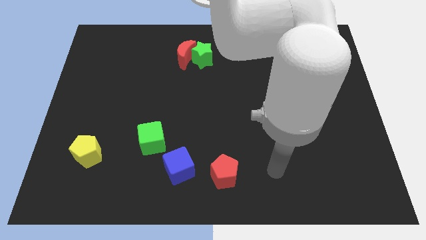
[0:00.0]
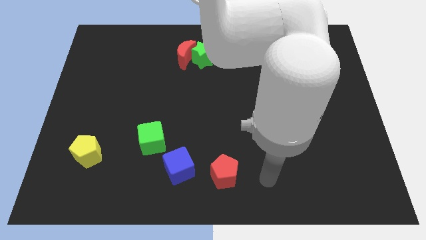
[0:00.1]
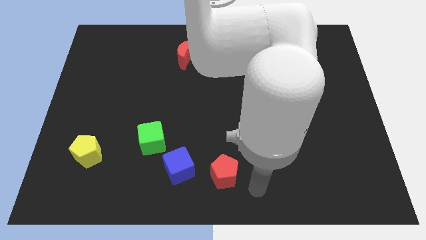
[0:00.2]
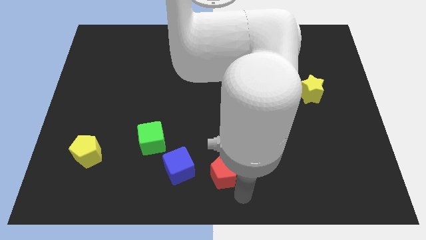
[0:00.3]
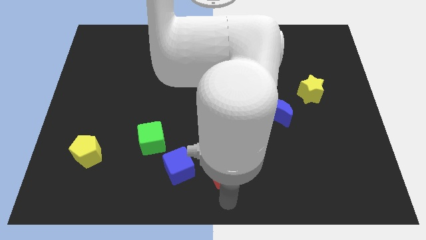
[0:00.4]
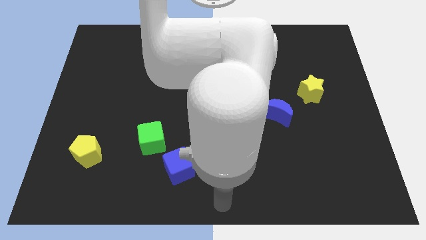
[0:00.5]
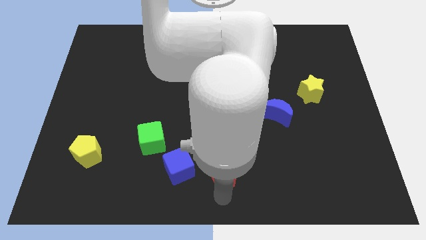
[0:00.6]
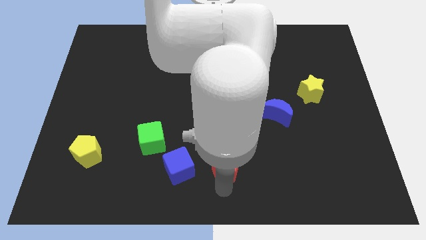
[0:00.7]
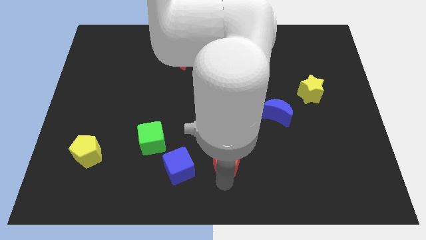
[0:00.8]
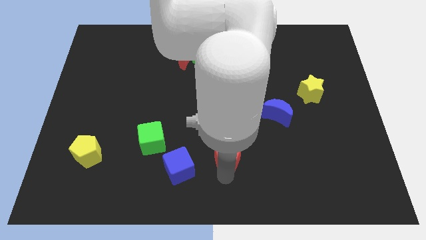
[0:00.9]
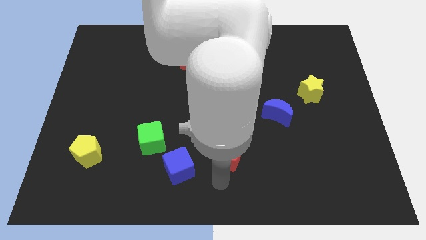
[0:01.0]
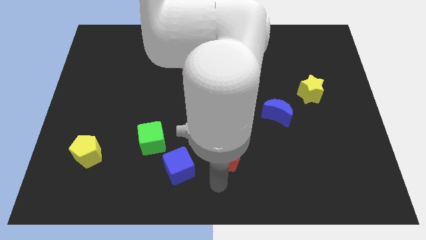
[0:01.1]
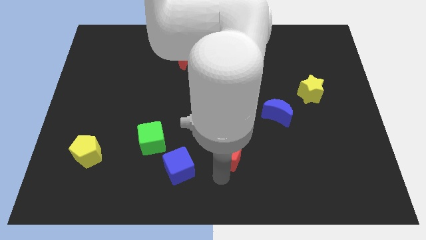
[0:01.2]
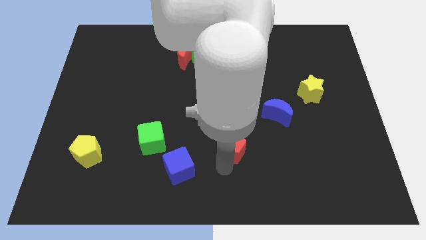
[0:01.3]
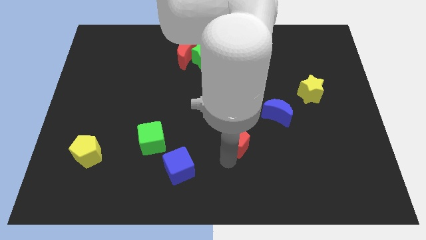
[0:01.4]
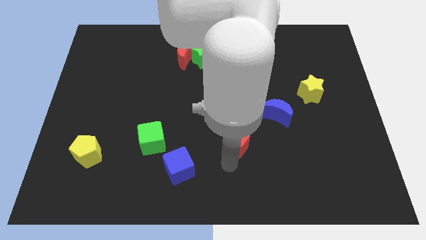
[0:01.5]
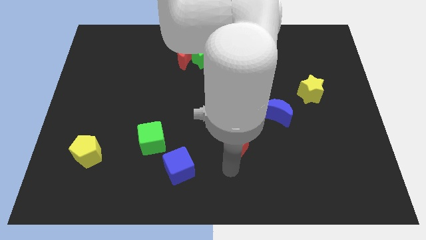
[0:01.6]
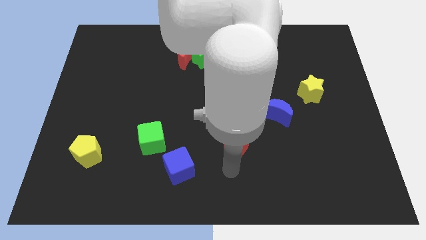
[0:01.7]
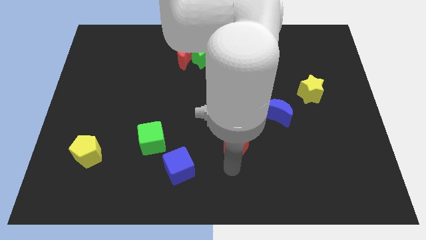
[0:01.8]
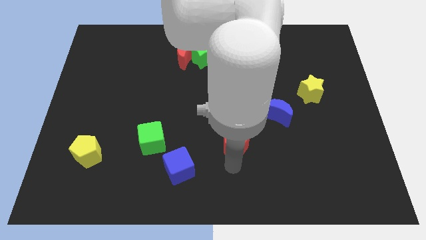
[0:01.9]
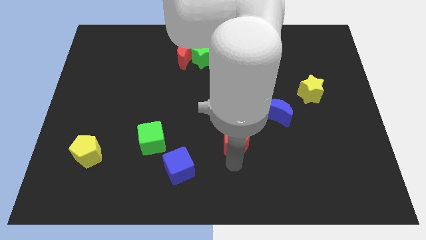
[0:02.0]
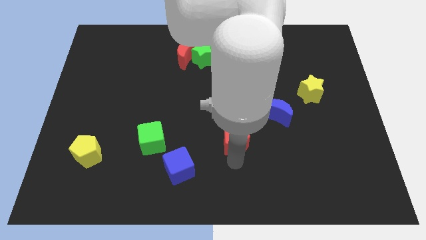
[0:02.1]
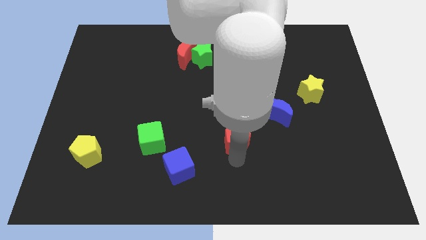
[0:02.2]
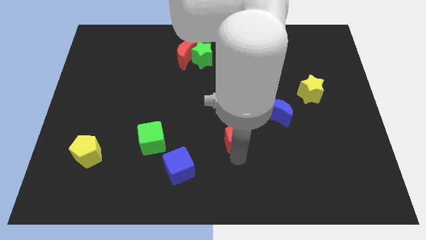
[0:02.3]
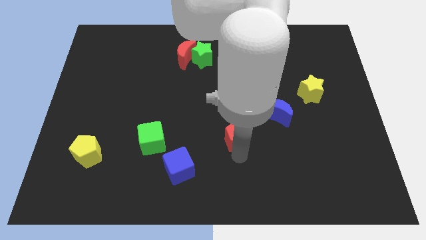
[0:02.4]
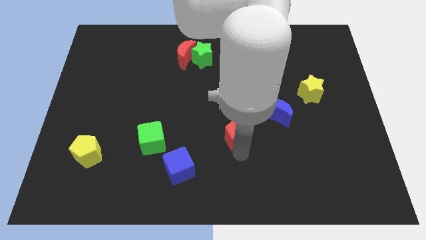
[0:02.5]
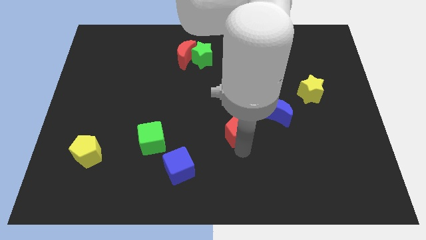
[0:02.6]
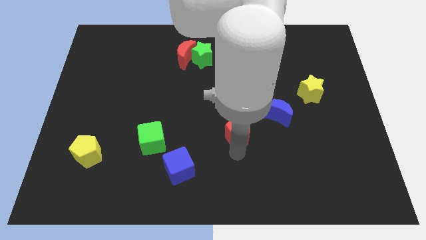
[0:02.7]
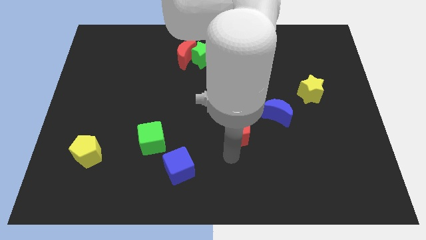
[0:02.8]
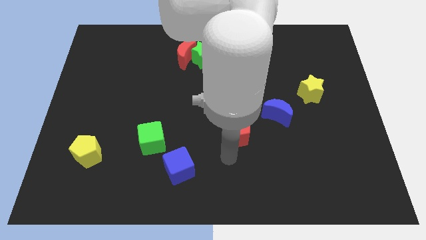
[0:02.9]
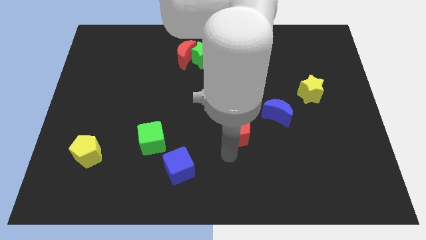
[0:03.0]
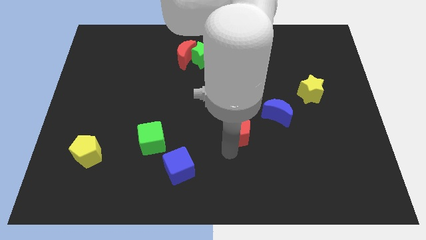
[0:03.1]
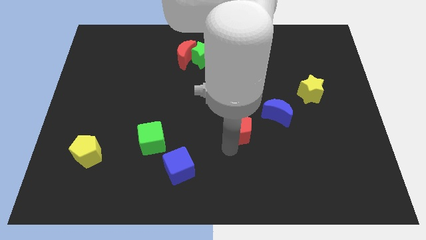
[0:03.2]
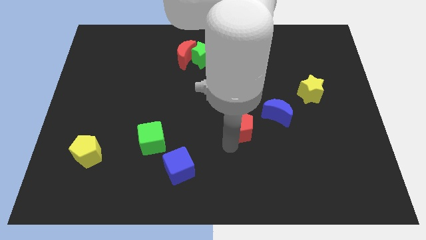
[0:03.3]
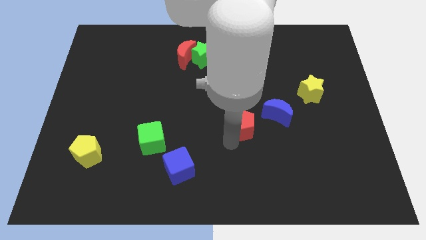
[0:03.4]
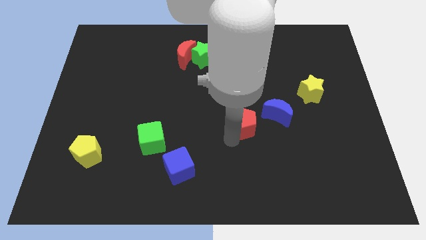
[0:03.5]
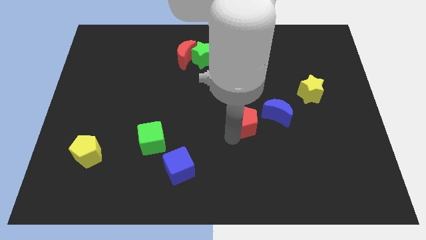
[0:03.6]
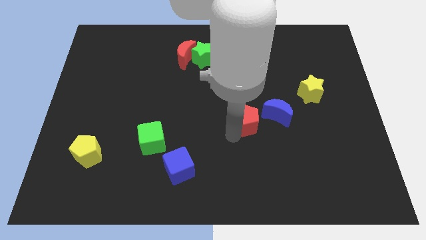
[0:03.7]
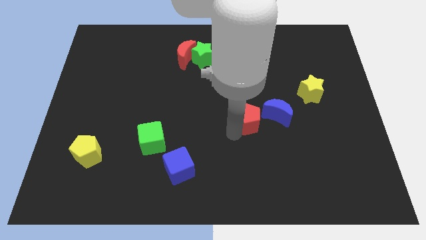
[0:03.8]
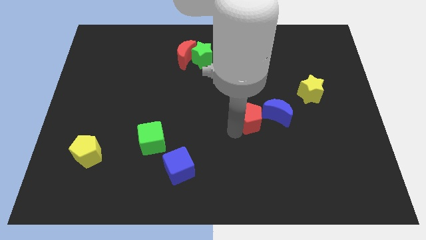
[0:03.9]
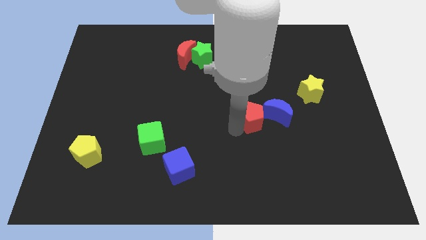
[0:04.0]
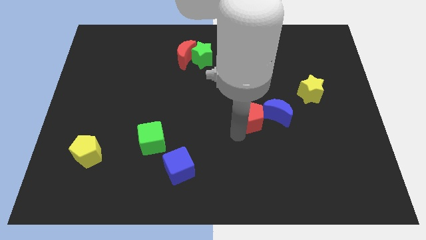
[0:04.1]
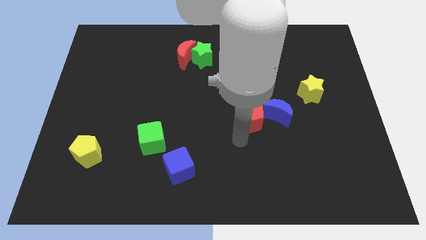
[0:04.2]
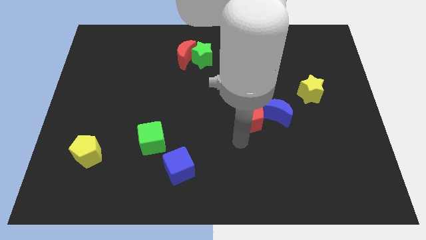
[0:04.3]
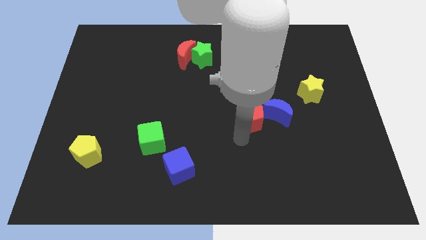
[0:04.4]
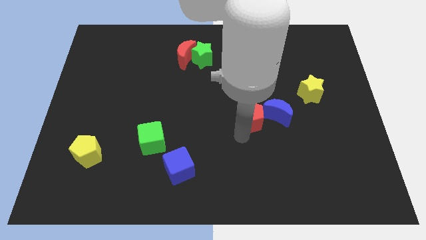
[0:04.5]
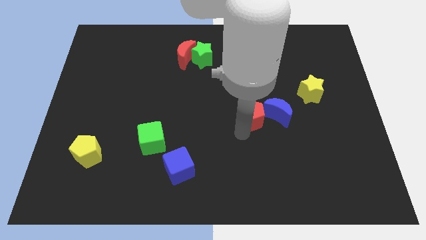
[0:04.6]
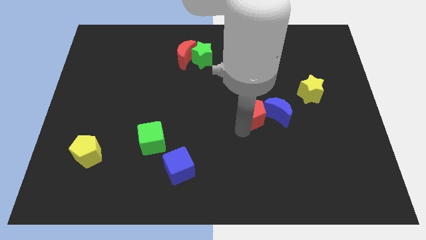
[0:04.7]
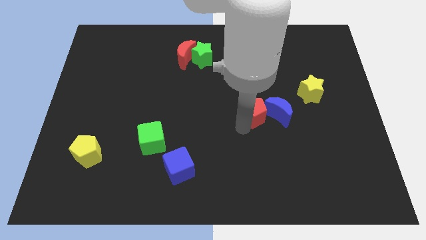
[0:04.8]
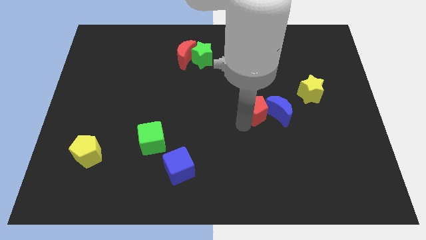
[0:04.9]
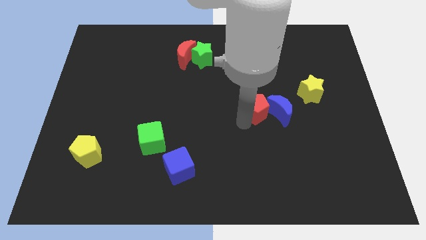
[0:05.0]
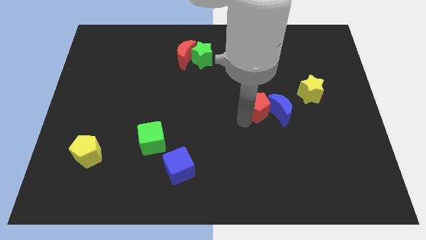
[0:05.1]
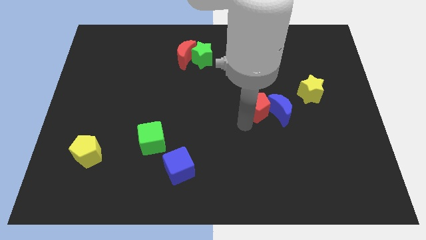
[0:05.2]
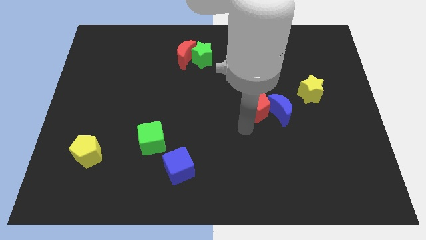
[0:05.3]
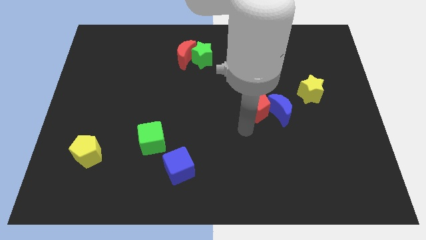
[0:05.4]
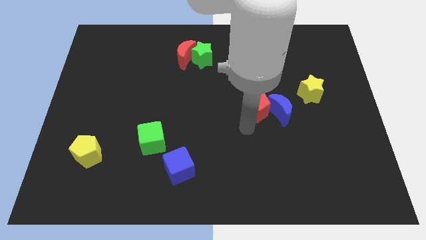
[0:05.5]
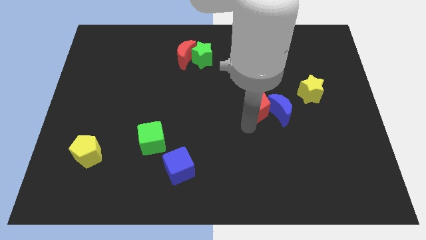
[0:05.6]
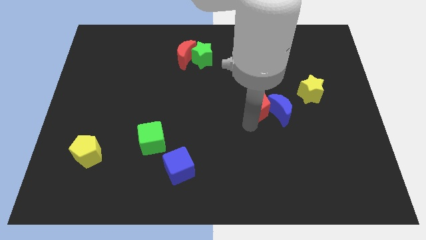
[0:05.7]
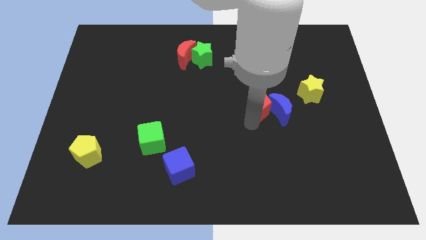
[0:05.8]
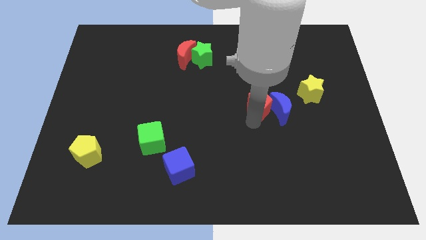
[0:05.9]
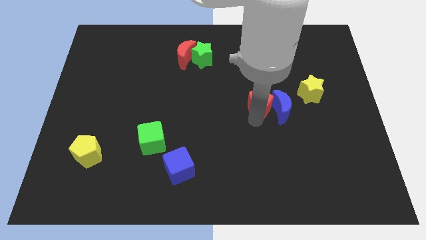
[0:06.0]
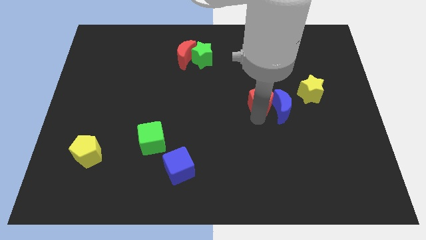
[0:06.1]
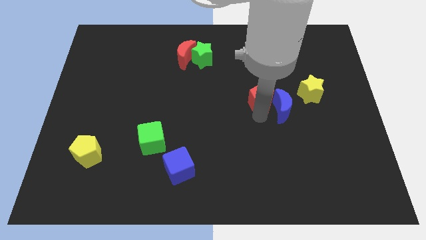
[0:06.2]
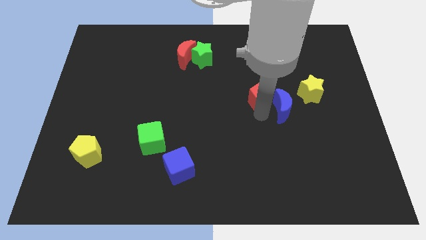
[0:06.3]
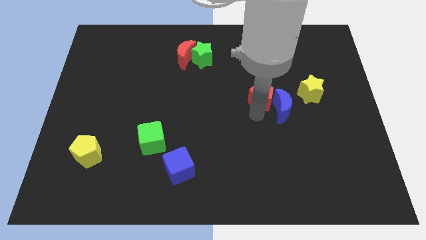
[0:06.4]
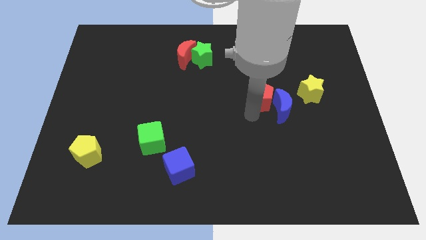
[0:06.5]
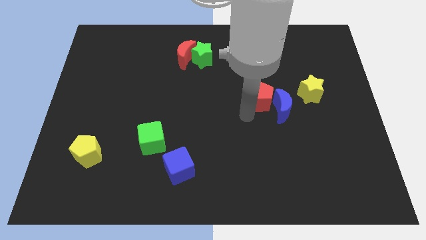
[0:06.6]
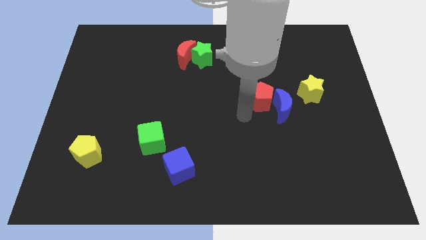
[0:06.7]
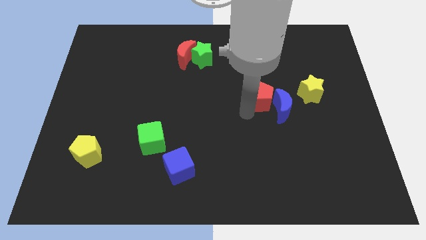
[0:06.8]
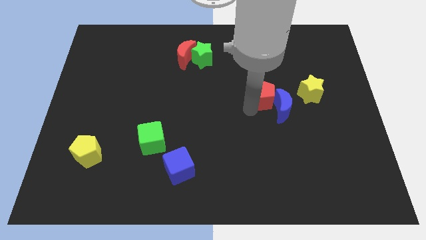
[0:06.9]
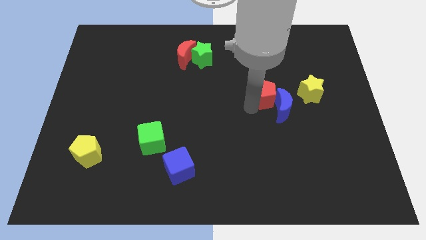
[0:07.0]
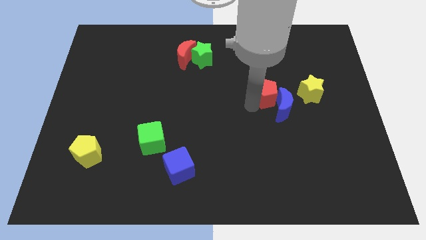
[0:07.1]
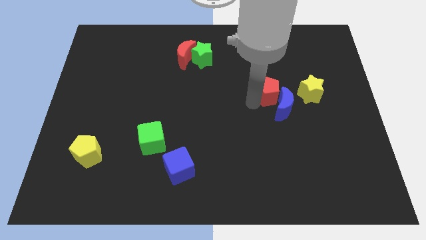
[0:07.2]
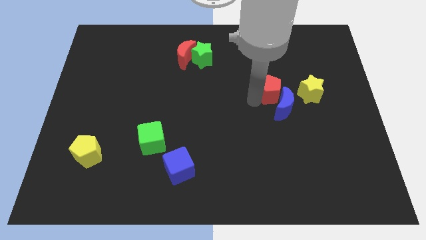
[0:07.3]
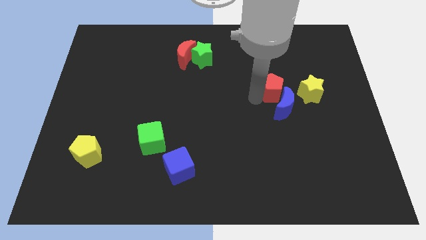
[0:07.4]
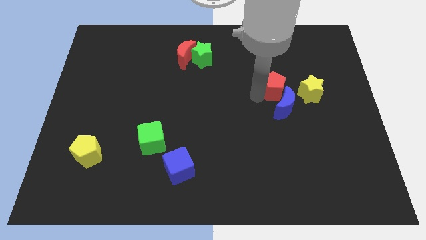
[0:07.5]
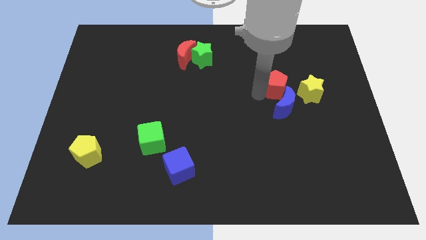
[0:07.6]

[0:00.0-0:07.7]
move the red pentagon to the top left side of the yellow star

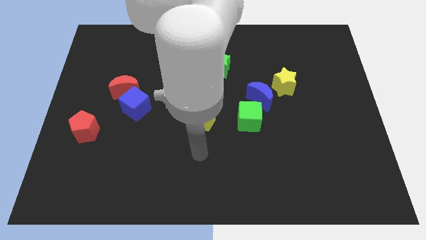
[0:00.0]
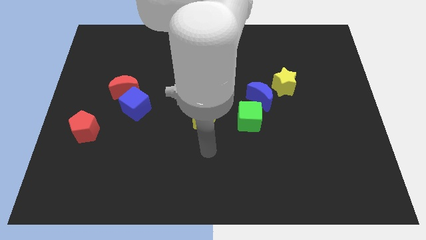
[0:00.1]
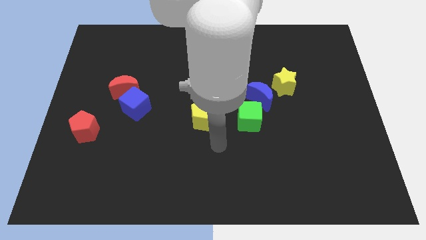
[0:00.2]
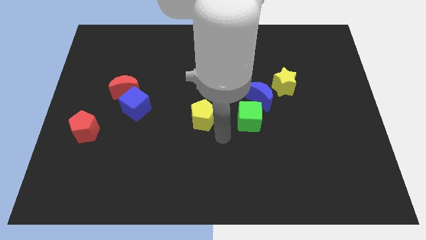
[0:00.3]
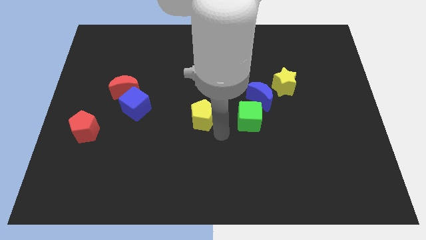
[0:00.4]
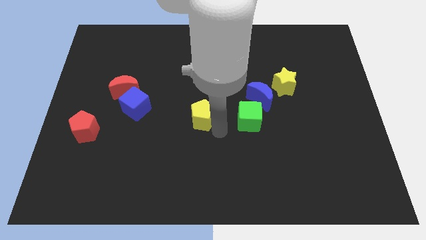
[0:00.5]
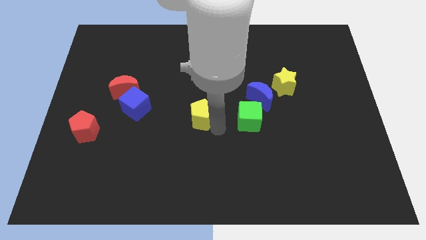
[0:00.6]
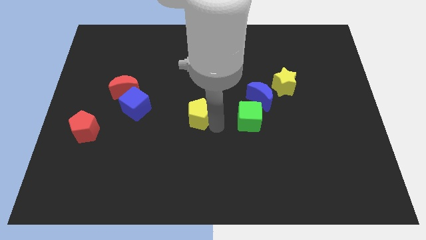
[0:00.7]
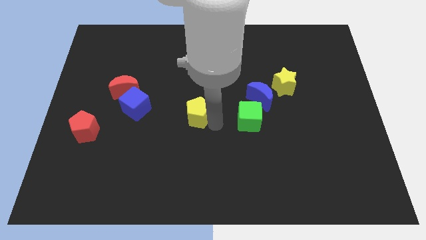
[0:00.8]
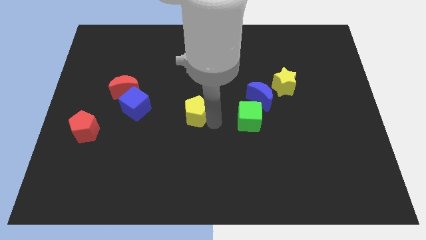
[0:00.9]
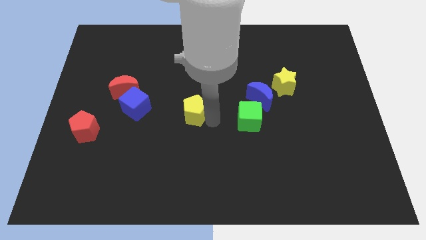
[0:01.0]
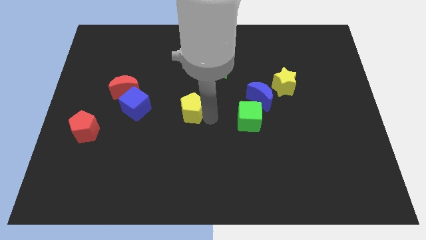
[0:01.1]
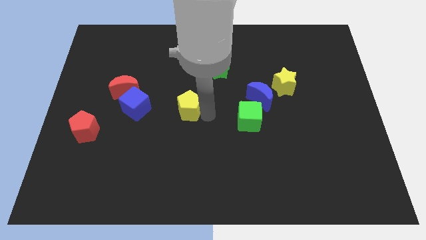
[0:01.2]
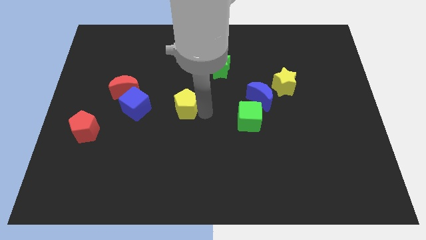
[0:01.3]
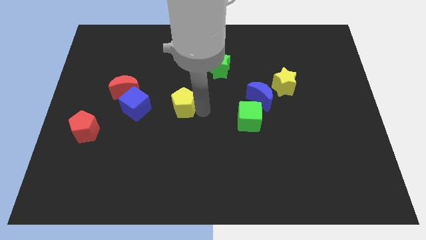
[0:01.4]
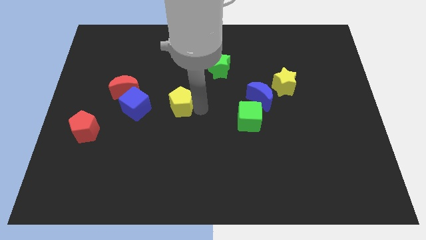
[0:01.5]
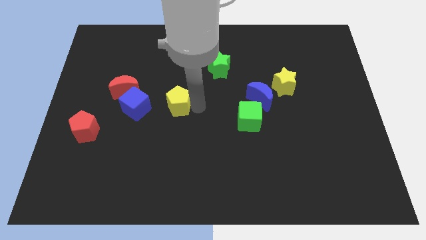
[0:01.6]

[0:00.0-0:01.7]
move the yellow pentagon just right of the red moon
